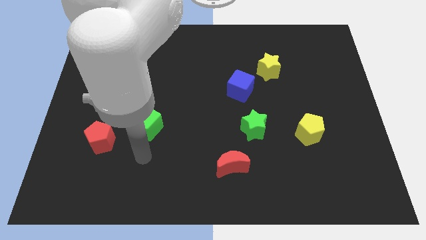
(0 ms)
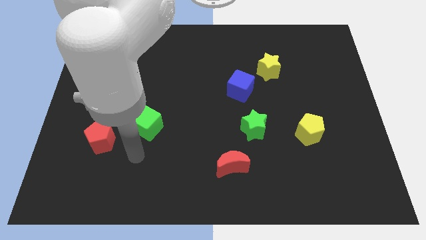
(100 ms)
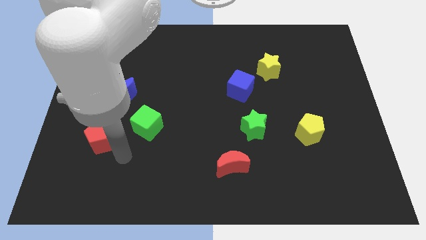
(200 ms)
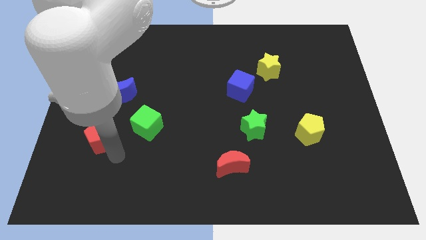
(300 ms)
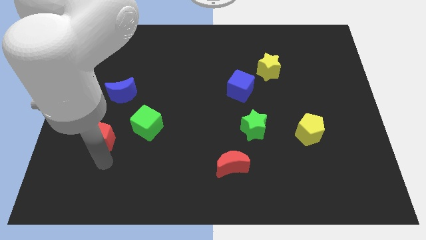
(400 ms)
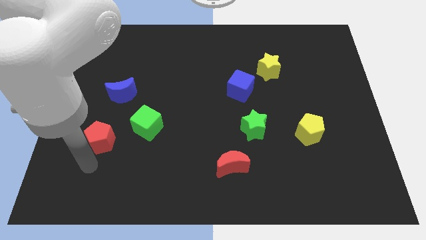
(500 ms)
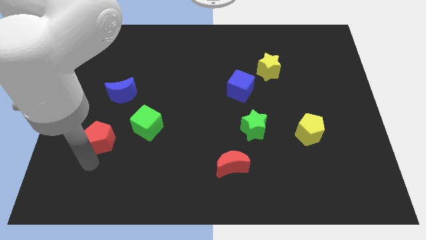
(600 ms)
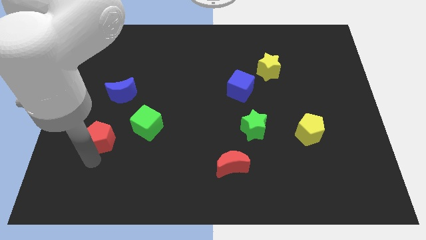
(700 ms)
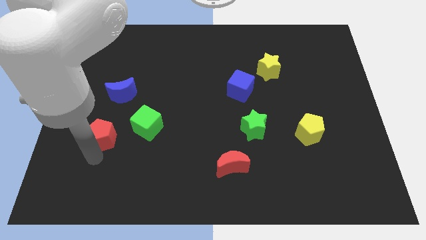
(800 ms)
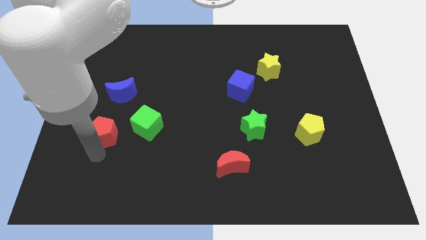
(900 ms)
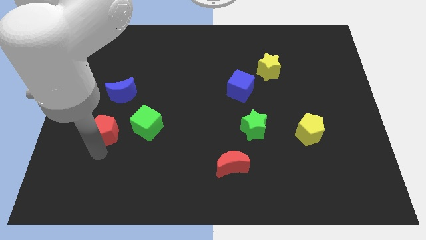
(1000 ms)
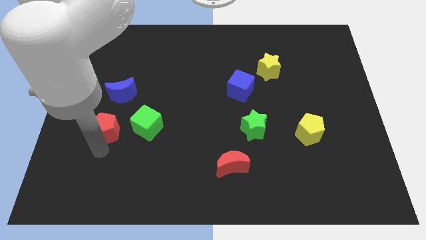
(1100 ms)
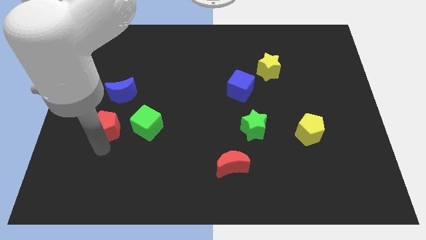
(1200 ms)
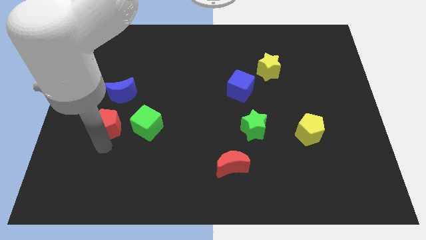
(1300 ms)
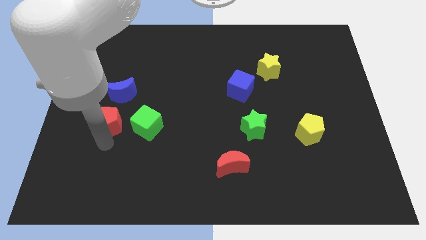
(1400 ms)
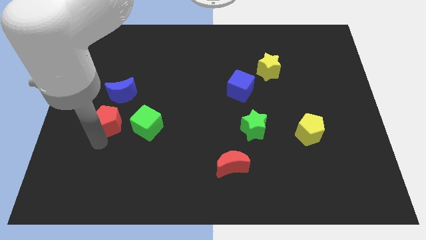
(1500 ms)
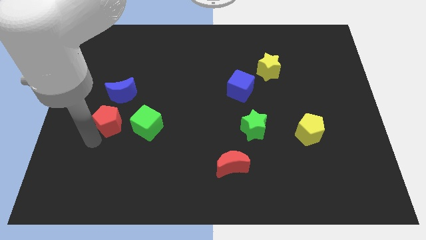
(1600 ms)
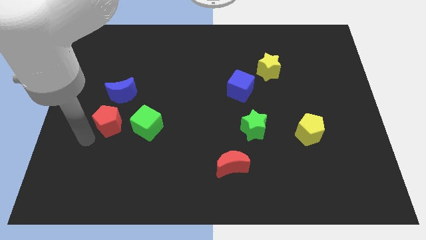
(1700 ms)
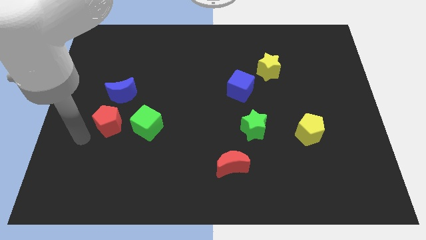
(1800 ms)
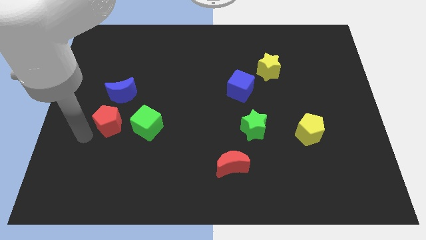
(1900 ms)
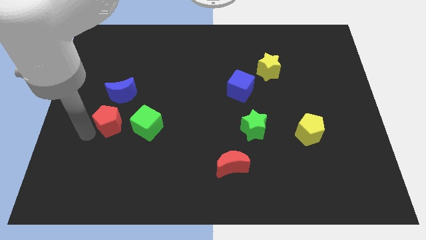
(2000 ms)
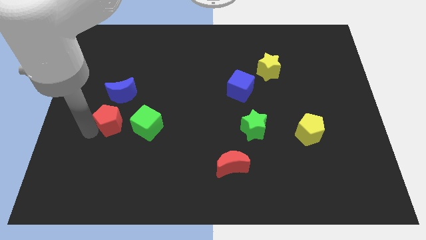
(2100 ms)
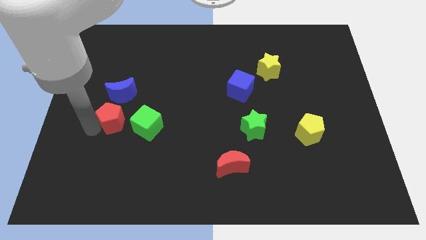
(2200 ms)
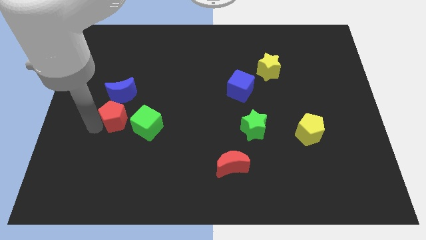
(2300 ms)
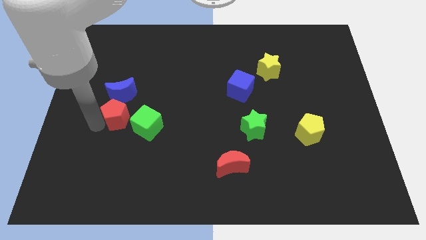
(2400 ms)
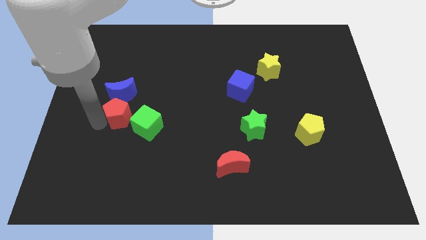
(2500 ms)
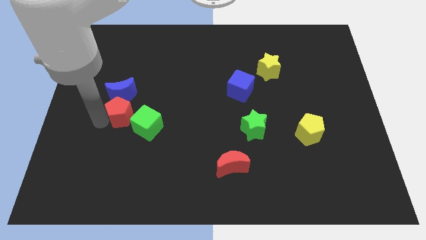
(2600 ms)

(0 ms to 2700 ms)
push the red pentagon a little bit up and then to the right

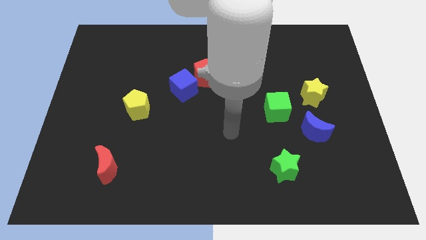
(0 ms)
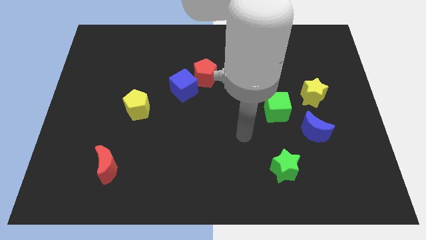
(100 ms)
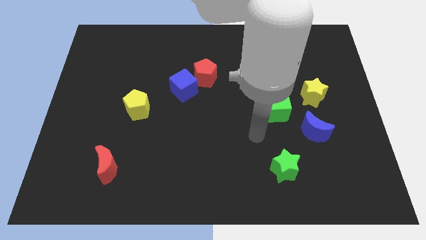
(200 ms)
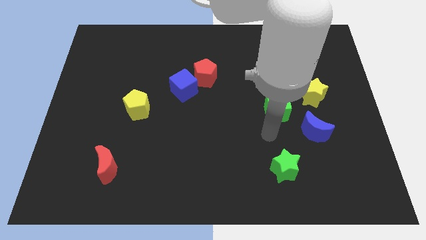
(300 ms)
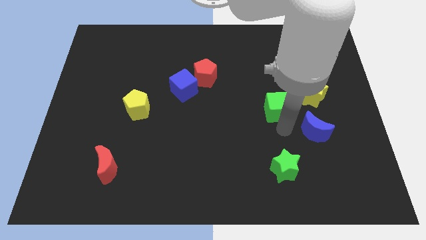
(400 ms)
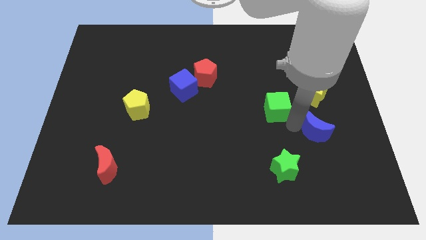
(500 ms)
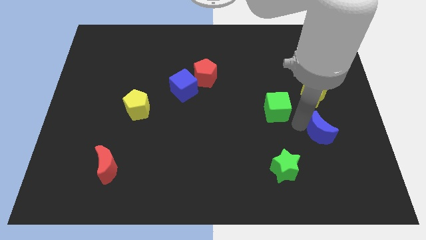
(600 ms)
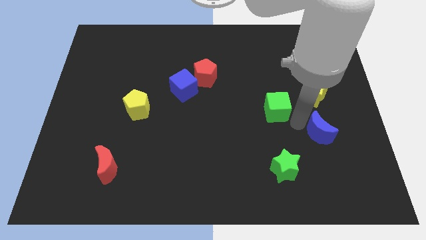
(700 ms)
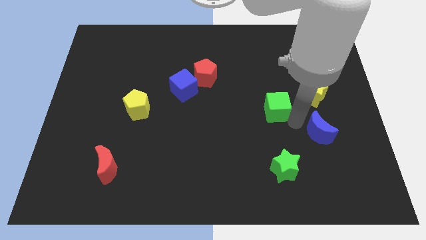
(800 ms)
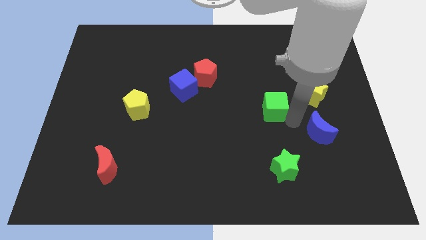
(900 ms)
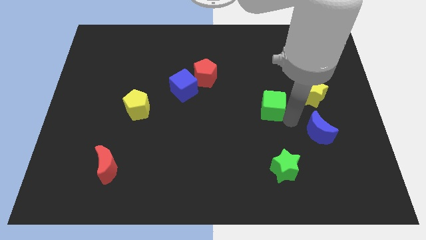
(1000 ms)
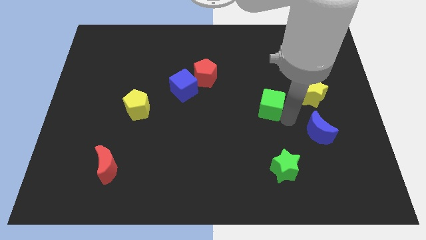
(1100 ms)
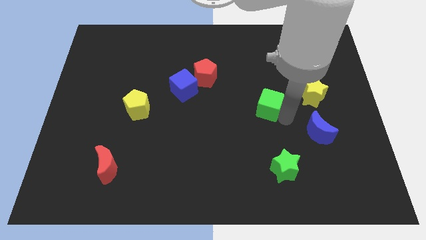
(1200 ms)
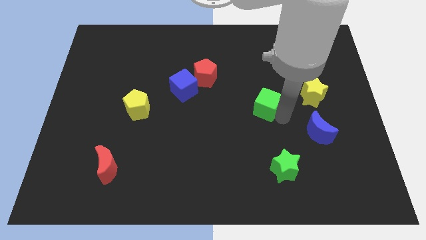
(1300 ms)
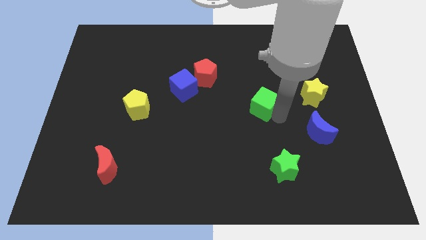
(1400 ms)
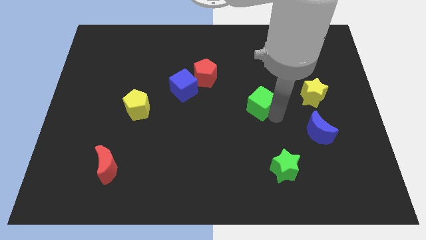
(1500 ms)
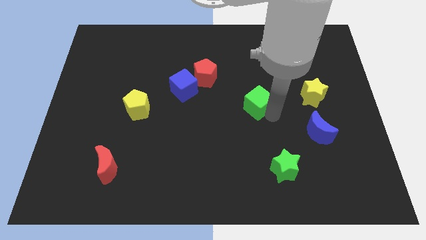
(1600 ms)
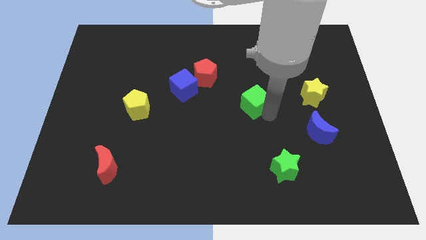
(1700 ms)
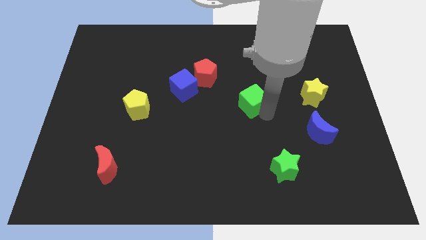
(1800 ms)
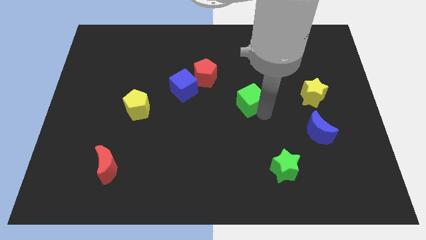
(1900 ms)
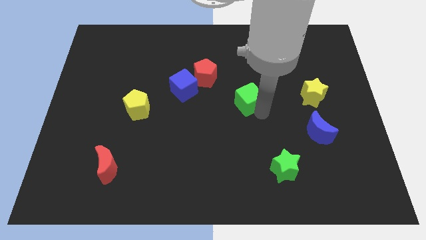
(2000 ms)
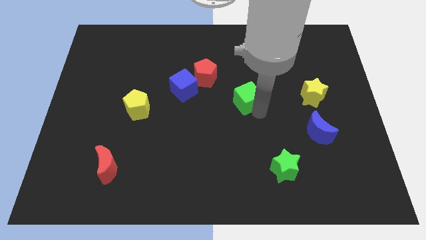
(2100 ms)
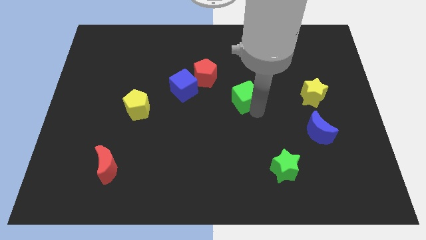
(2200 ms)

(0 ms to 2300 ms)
move the green cube up and then to the left a little

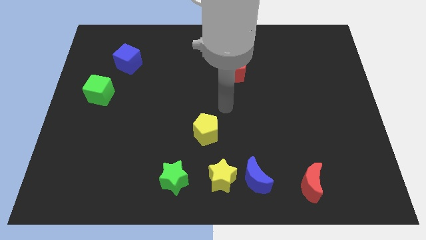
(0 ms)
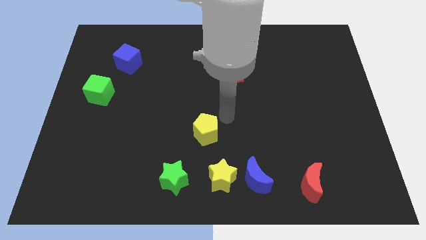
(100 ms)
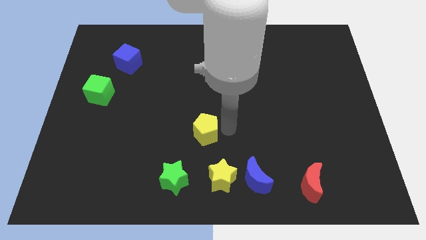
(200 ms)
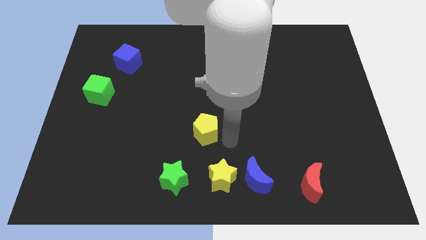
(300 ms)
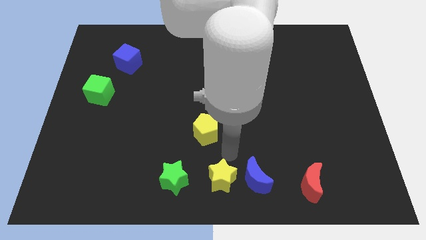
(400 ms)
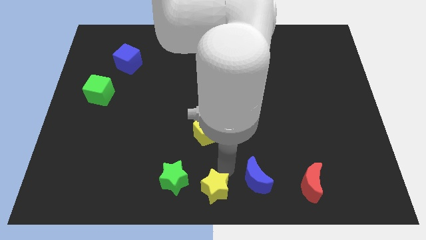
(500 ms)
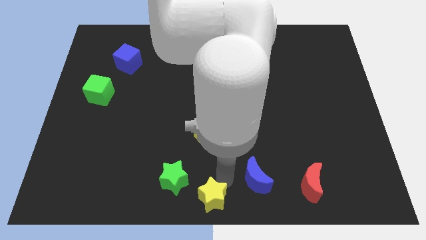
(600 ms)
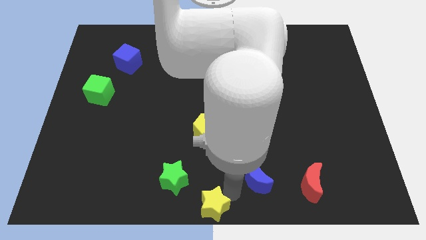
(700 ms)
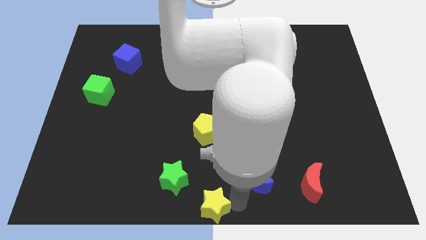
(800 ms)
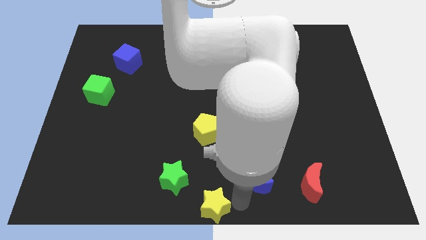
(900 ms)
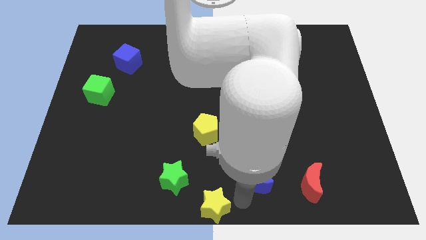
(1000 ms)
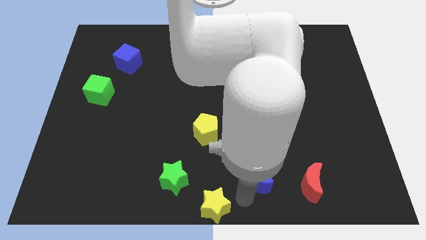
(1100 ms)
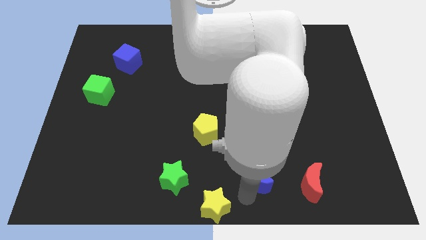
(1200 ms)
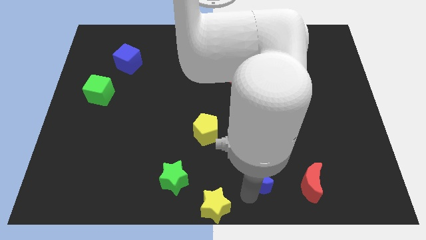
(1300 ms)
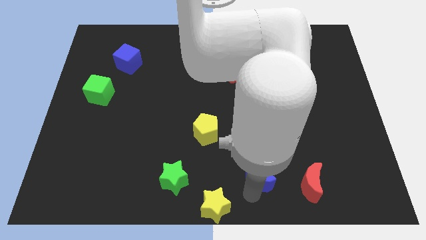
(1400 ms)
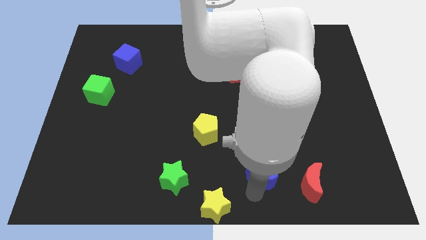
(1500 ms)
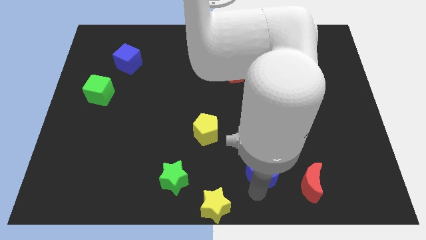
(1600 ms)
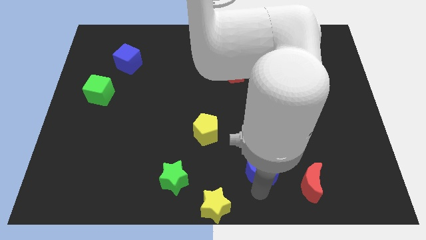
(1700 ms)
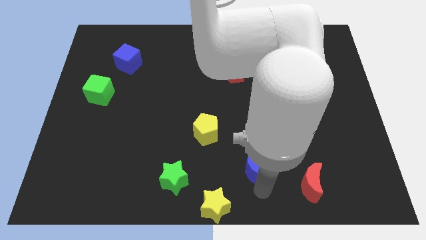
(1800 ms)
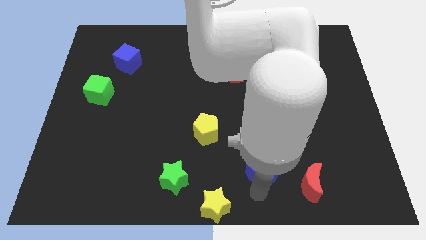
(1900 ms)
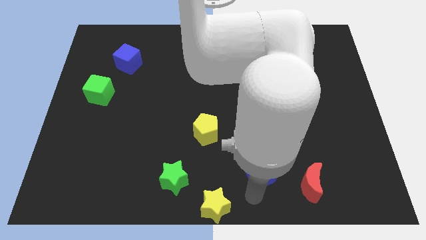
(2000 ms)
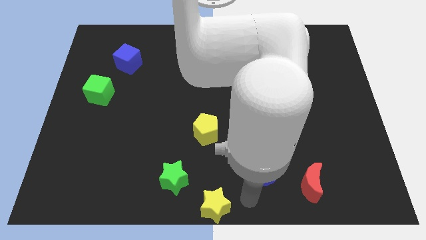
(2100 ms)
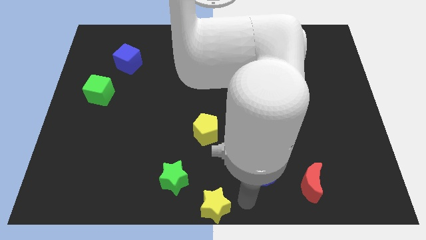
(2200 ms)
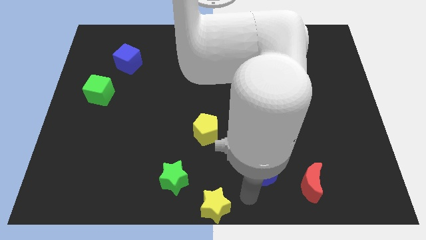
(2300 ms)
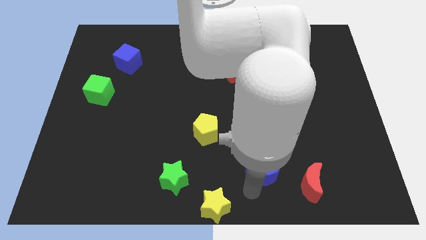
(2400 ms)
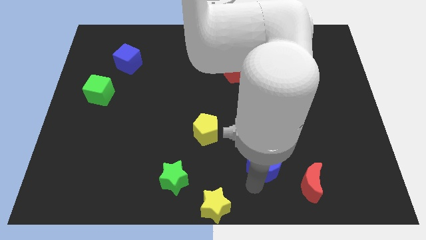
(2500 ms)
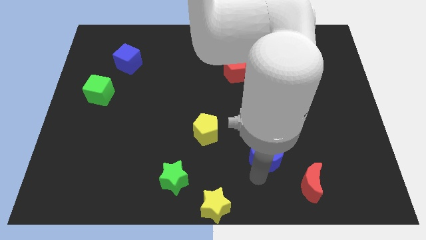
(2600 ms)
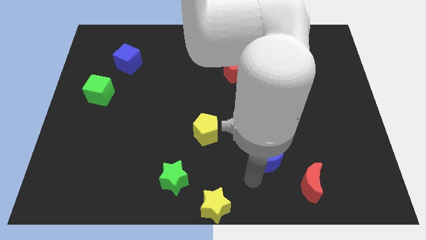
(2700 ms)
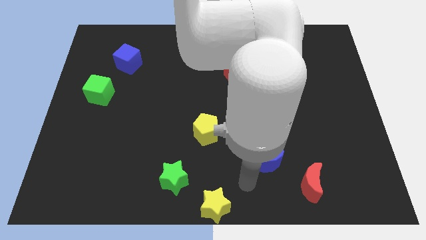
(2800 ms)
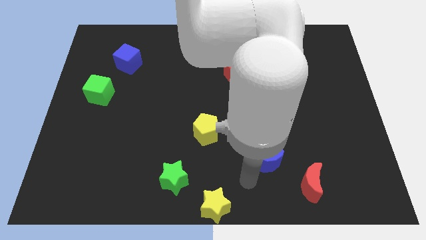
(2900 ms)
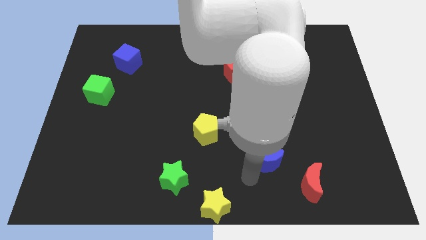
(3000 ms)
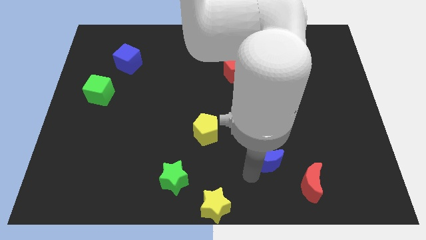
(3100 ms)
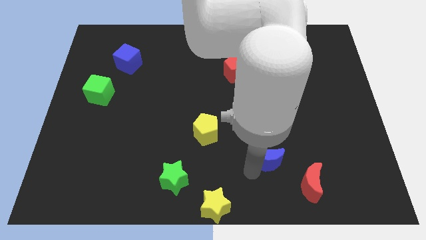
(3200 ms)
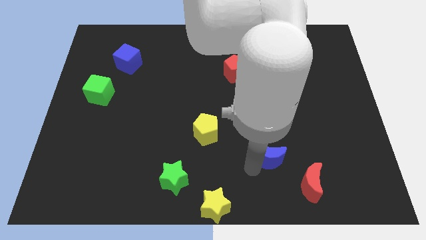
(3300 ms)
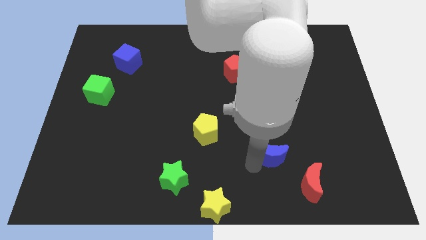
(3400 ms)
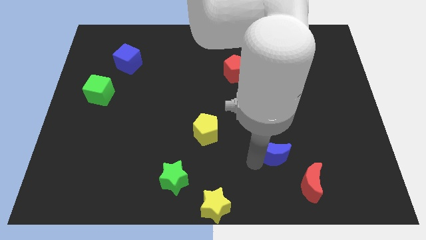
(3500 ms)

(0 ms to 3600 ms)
move the blue moon slightly up and then right
